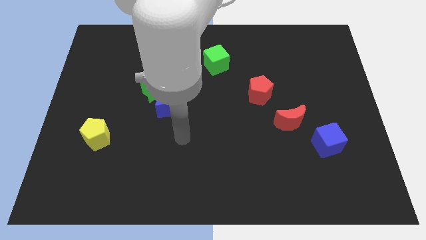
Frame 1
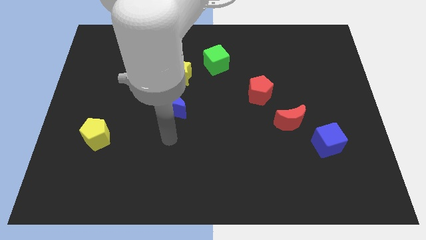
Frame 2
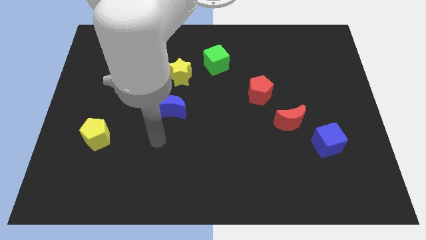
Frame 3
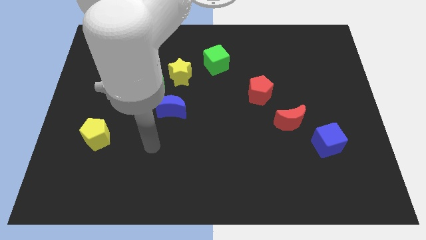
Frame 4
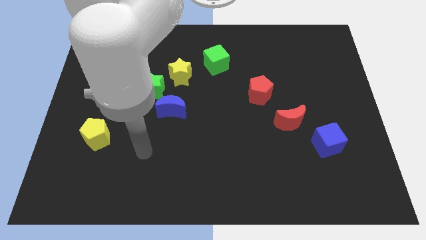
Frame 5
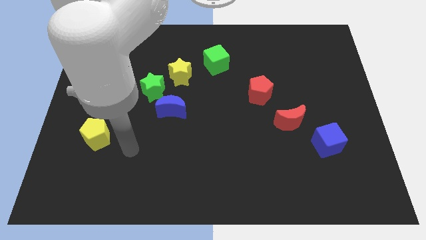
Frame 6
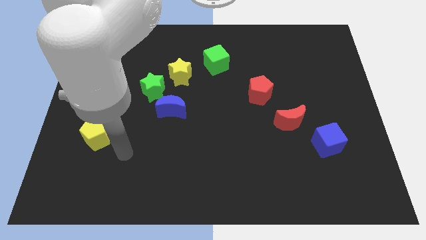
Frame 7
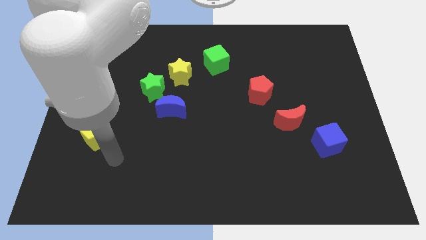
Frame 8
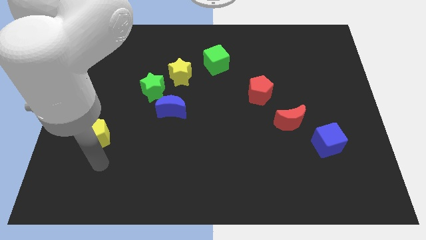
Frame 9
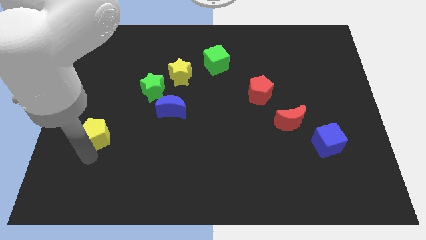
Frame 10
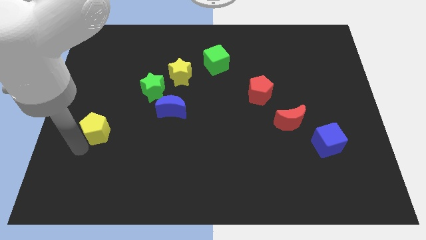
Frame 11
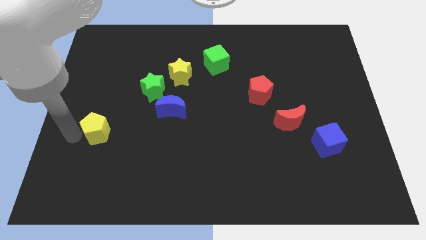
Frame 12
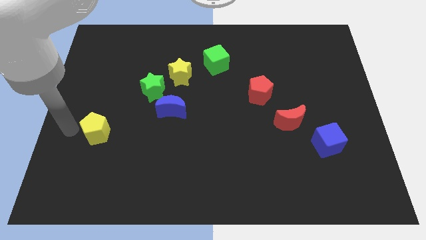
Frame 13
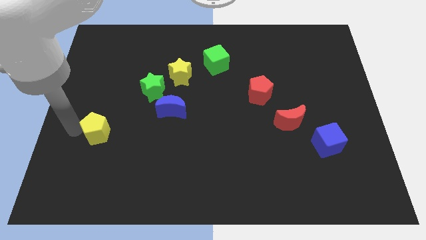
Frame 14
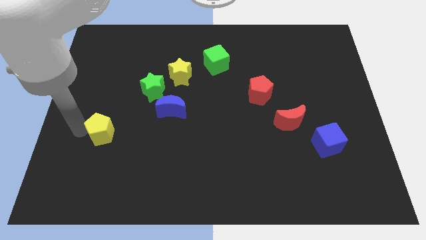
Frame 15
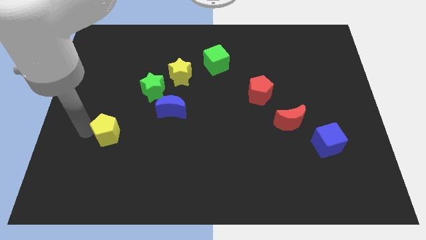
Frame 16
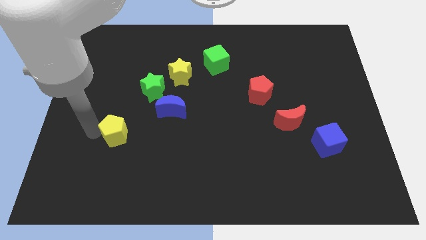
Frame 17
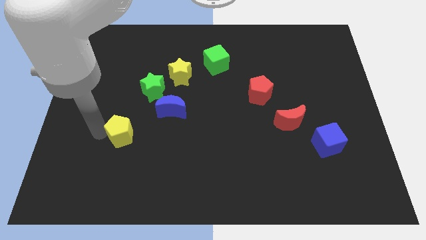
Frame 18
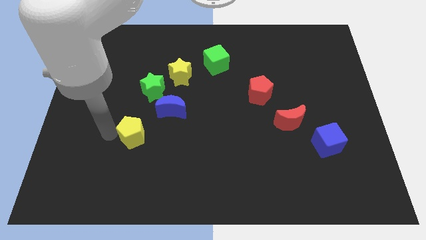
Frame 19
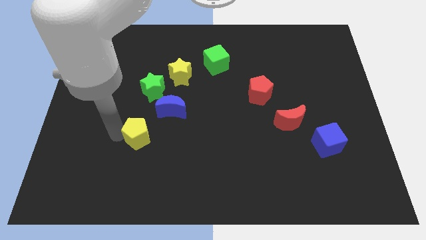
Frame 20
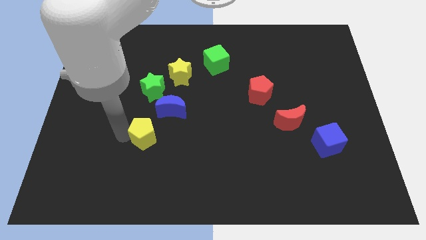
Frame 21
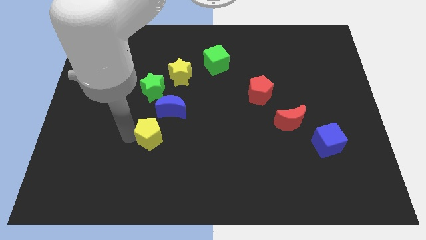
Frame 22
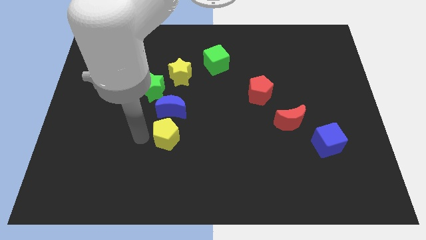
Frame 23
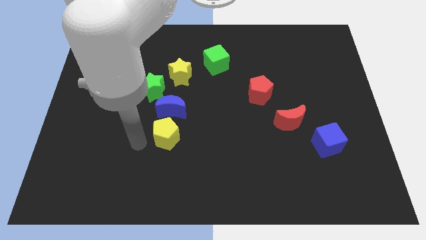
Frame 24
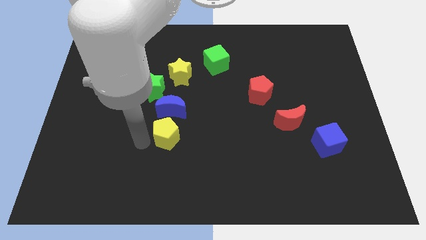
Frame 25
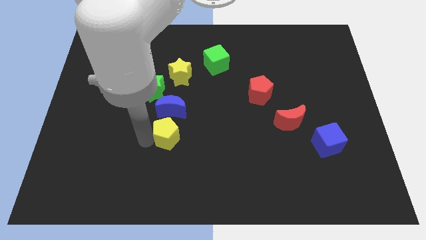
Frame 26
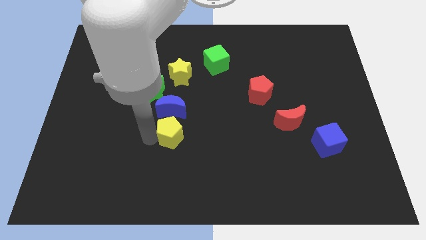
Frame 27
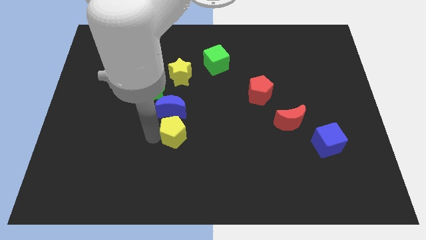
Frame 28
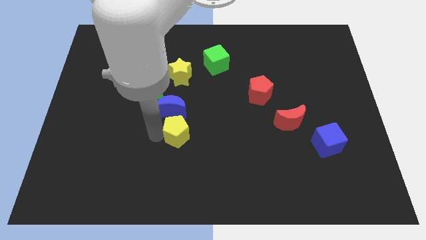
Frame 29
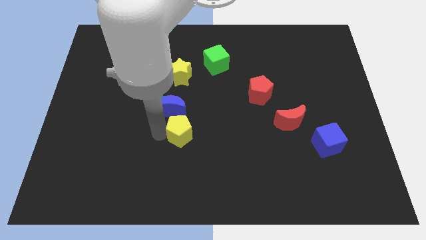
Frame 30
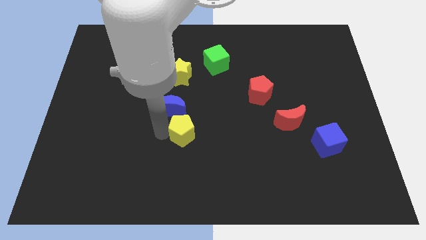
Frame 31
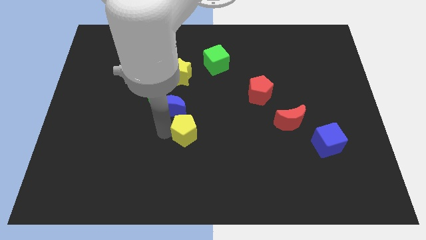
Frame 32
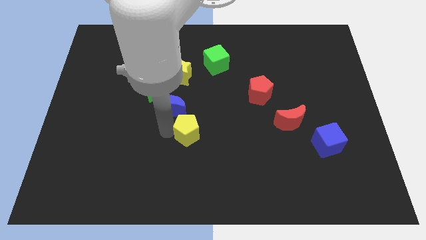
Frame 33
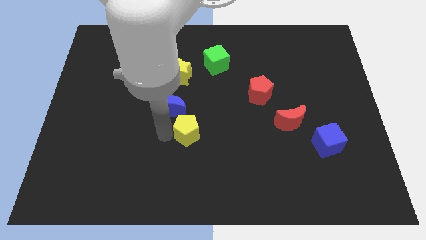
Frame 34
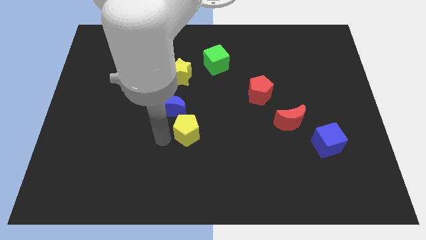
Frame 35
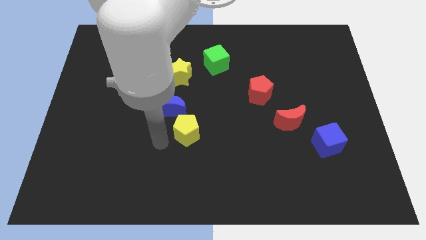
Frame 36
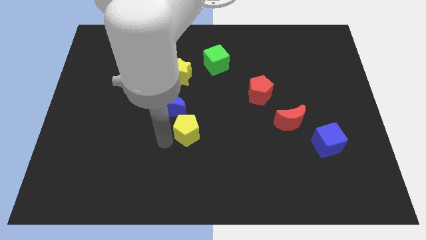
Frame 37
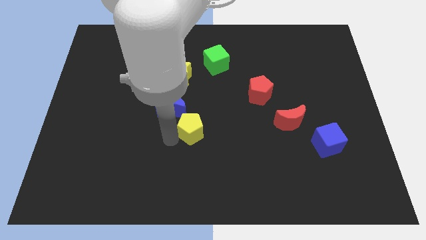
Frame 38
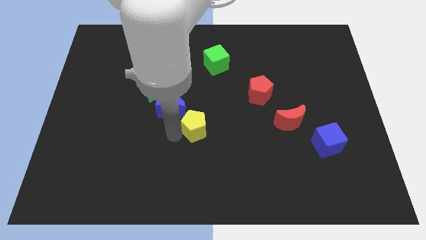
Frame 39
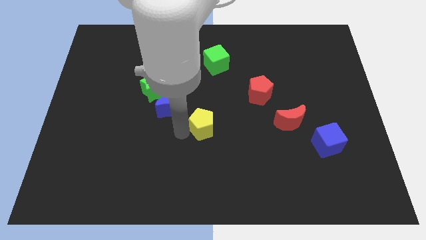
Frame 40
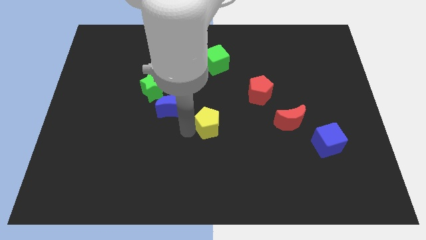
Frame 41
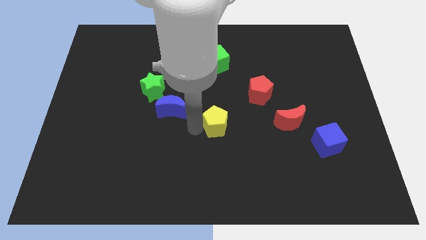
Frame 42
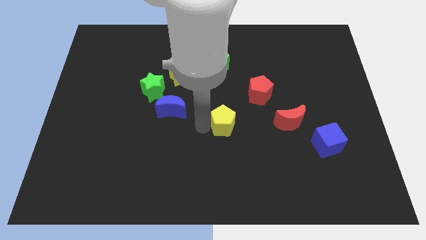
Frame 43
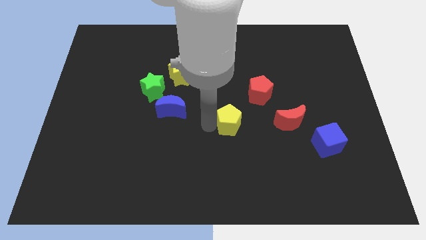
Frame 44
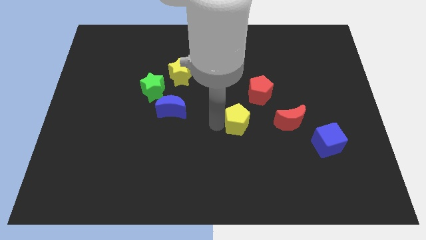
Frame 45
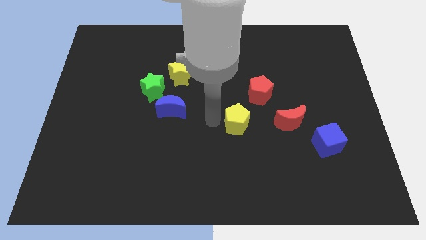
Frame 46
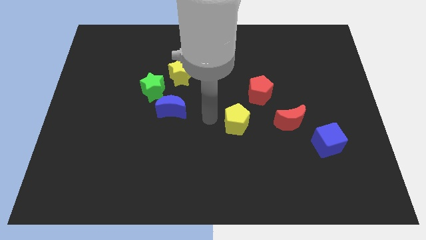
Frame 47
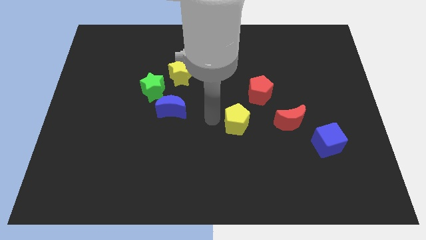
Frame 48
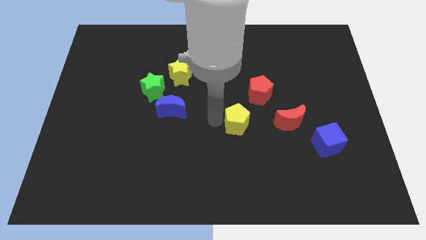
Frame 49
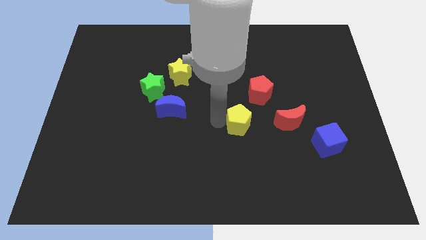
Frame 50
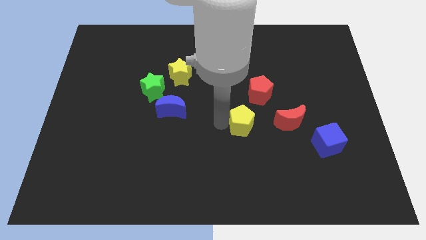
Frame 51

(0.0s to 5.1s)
move the yellow pentagon below the red pentagon

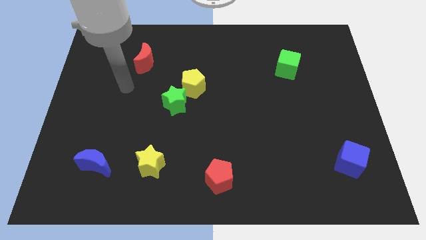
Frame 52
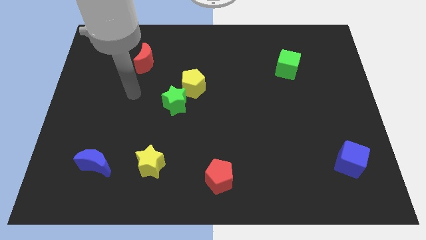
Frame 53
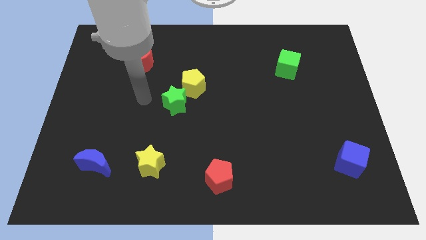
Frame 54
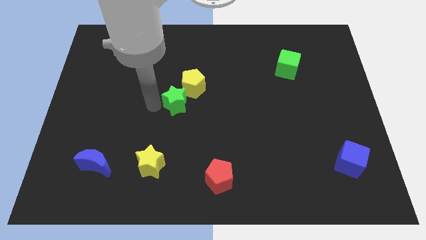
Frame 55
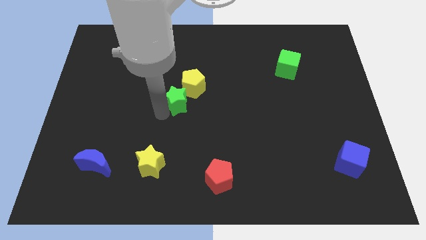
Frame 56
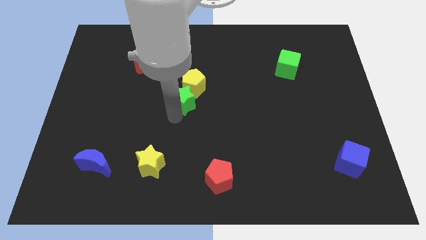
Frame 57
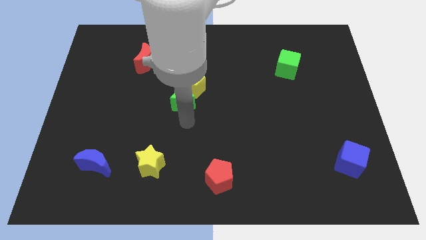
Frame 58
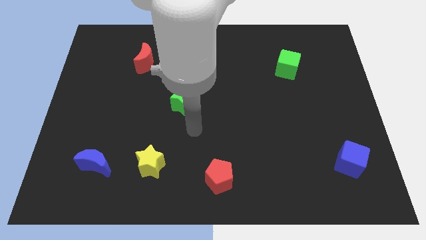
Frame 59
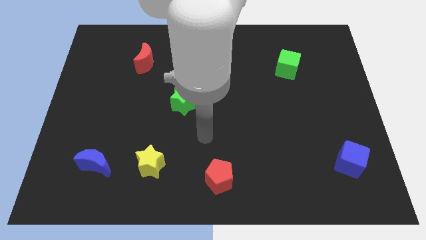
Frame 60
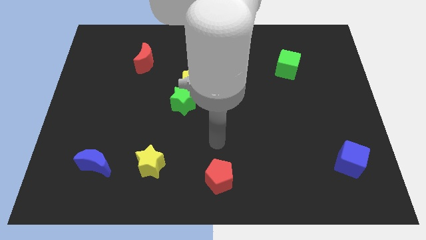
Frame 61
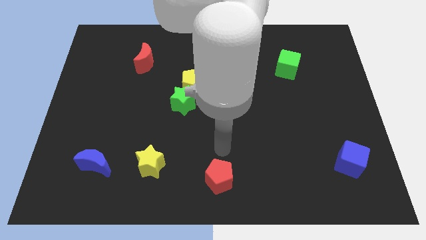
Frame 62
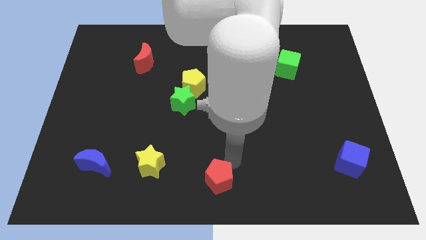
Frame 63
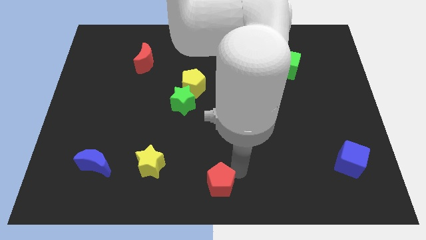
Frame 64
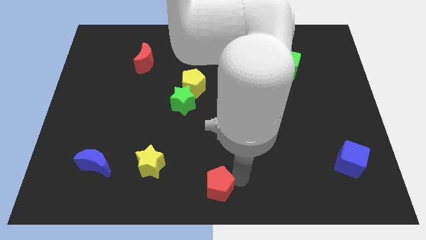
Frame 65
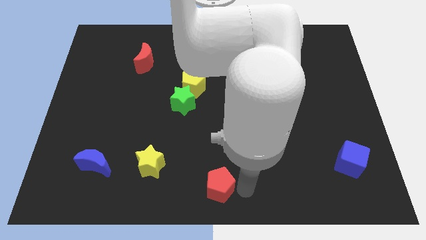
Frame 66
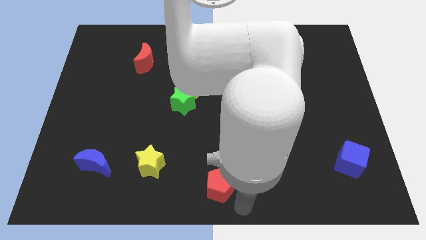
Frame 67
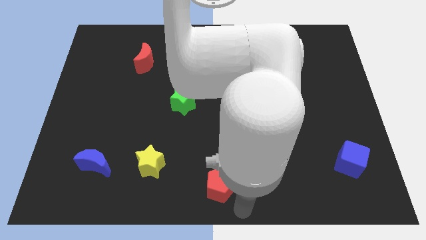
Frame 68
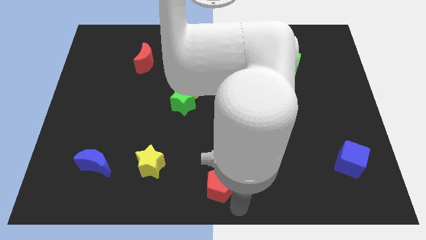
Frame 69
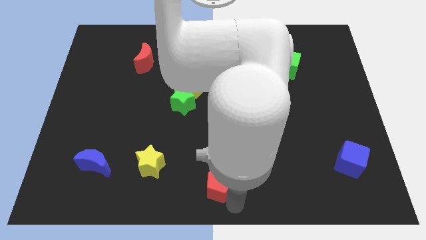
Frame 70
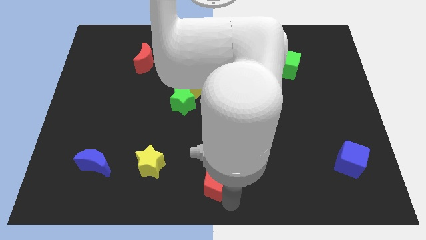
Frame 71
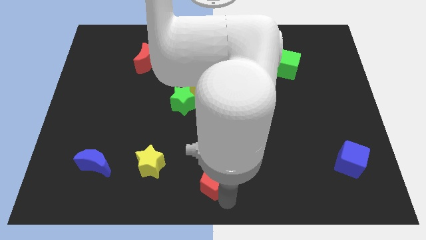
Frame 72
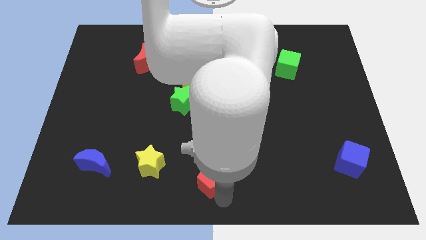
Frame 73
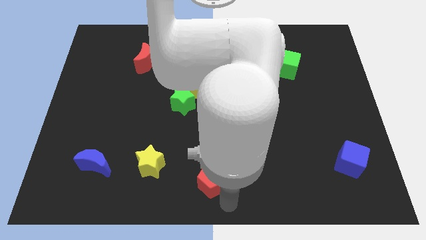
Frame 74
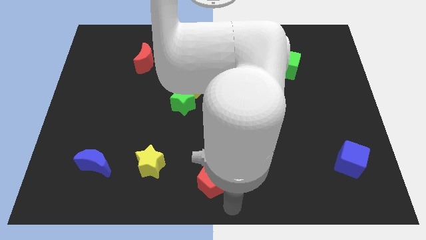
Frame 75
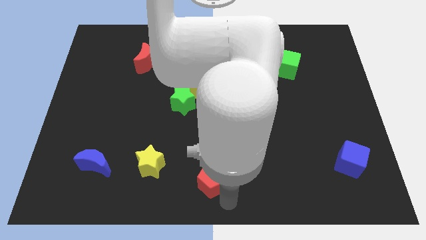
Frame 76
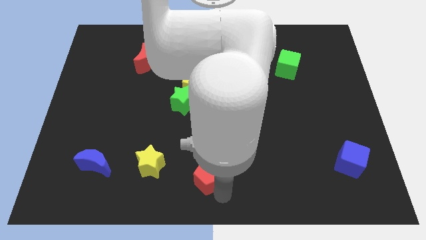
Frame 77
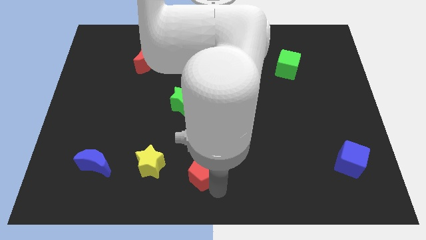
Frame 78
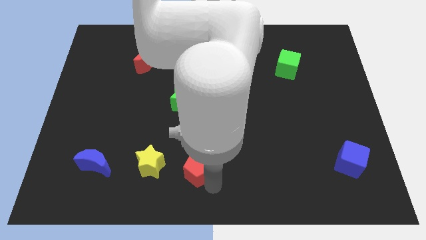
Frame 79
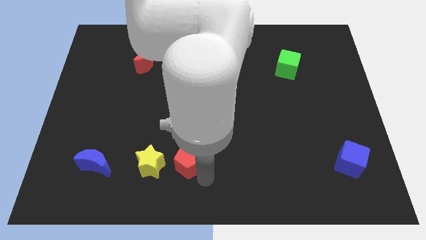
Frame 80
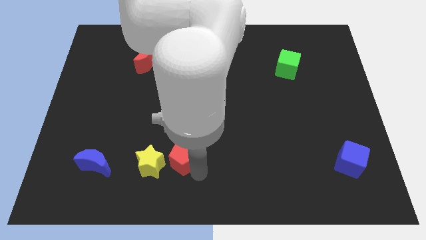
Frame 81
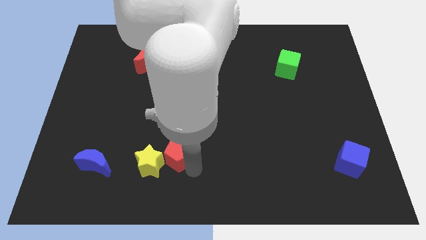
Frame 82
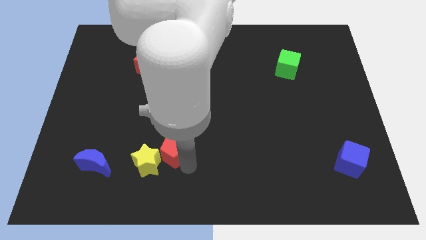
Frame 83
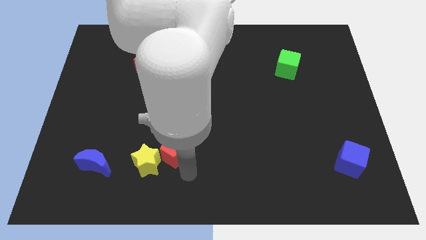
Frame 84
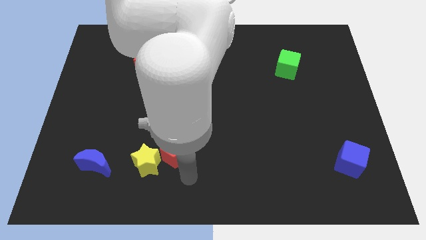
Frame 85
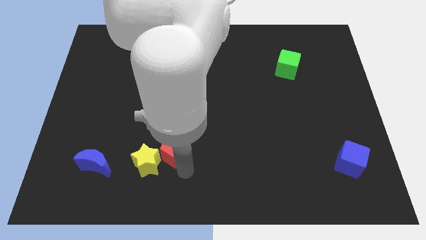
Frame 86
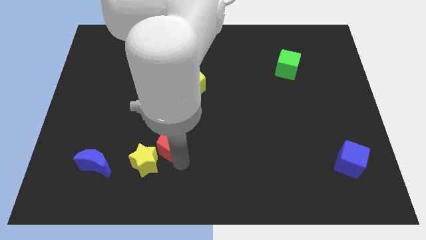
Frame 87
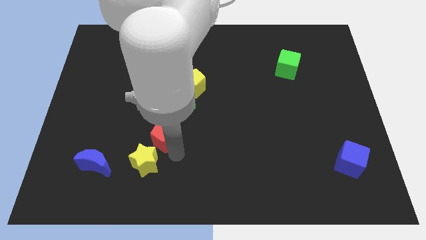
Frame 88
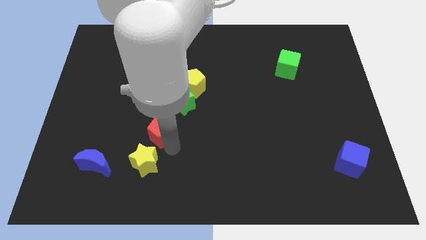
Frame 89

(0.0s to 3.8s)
push the red pentagon to the bottom left side of the green star
